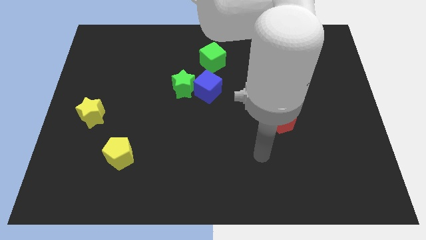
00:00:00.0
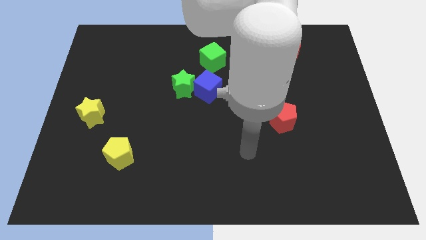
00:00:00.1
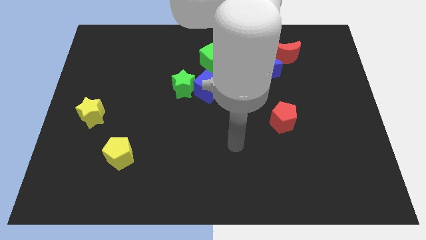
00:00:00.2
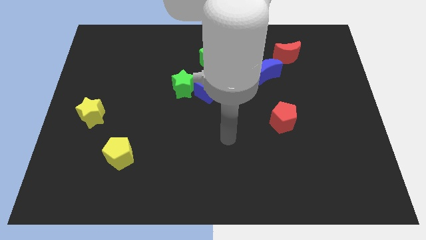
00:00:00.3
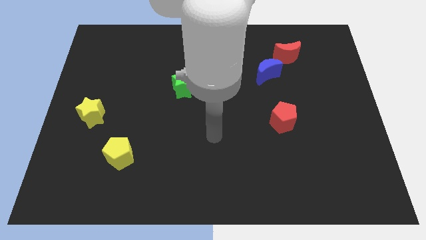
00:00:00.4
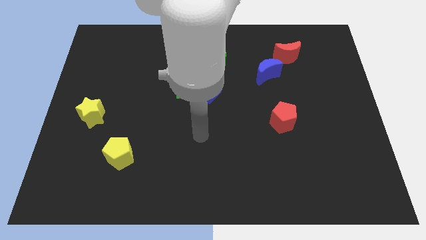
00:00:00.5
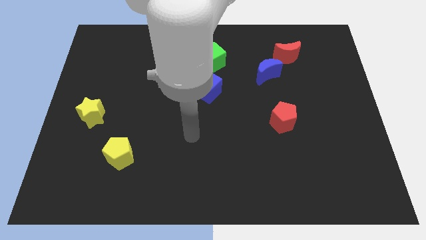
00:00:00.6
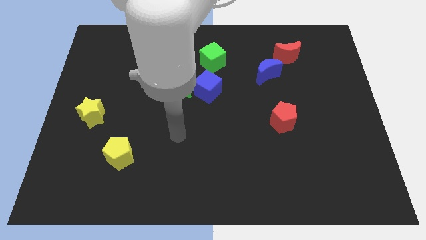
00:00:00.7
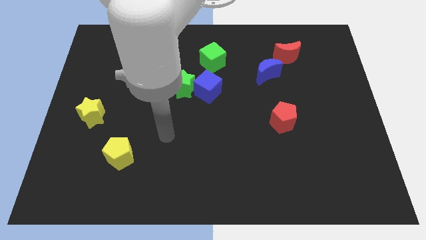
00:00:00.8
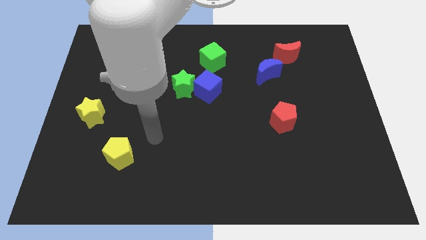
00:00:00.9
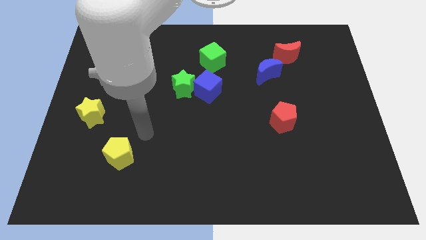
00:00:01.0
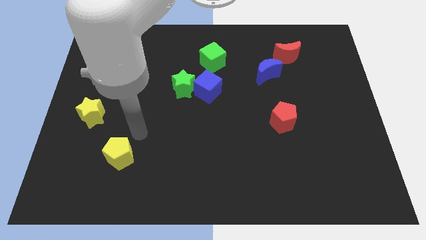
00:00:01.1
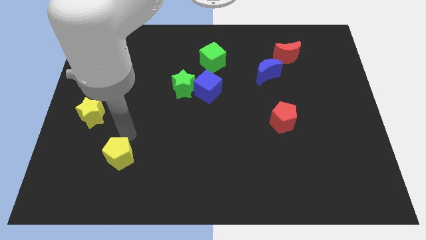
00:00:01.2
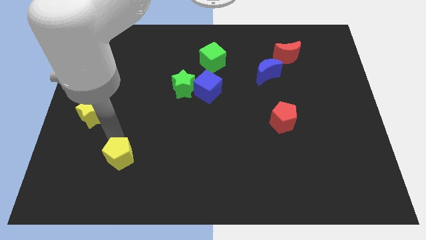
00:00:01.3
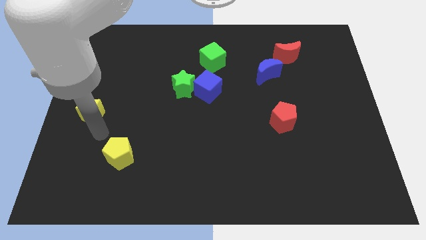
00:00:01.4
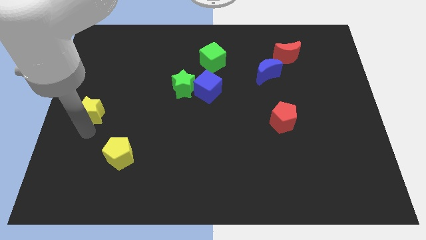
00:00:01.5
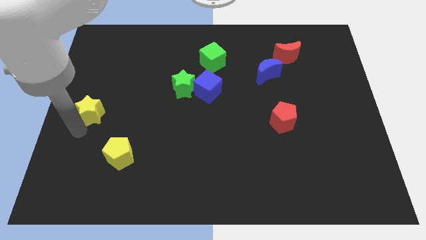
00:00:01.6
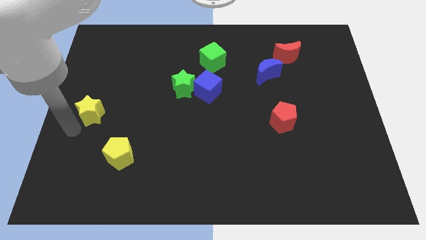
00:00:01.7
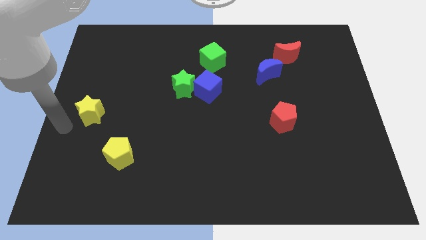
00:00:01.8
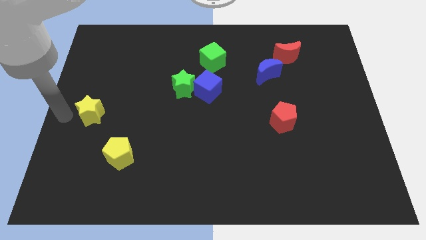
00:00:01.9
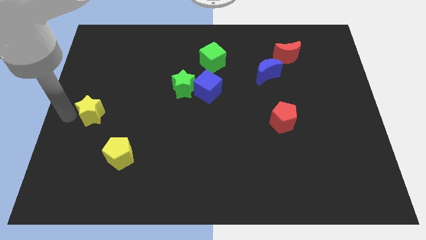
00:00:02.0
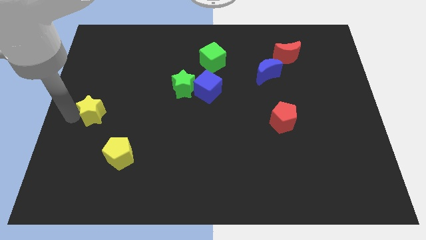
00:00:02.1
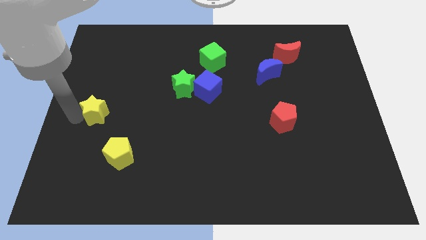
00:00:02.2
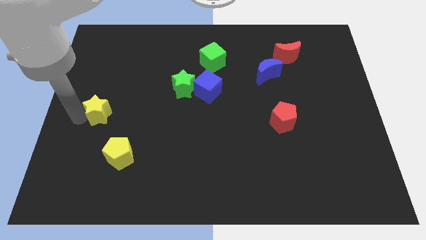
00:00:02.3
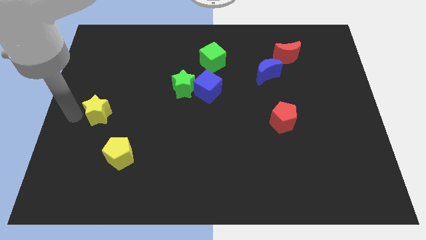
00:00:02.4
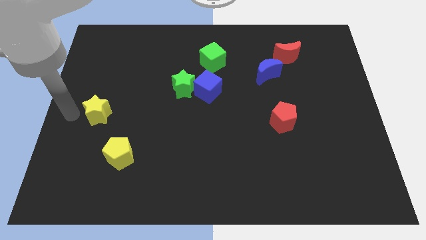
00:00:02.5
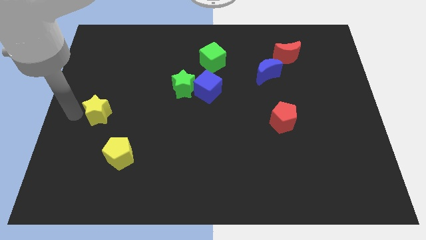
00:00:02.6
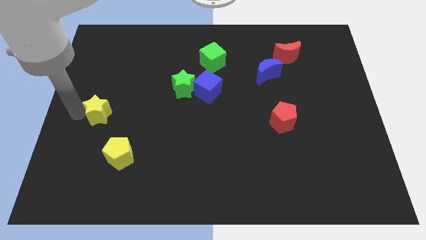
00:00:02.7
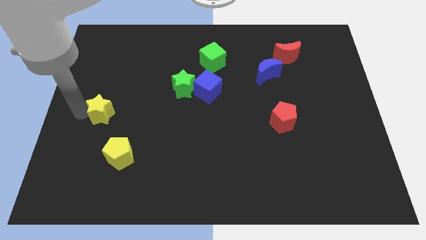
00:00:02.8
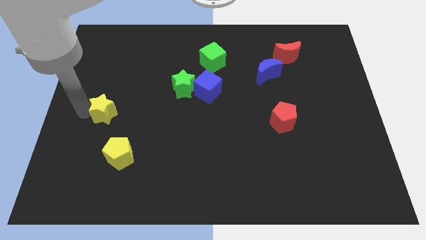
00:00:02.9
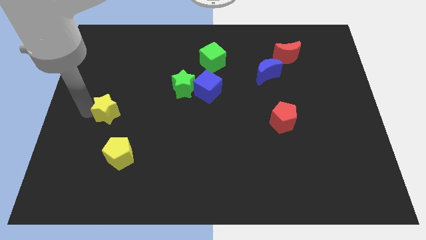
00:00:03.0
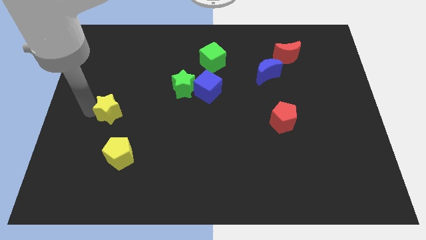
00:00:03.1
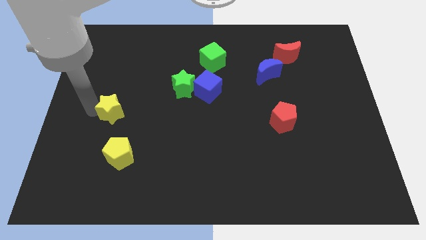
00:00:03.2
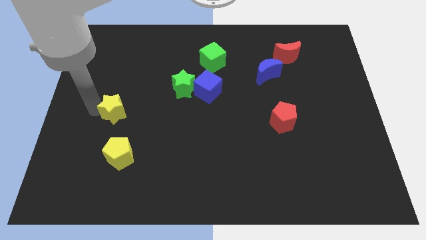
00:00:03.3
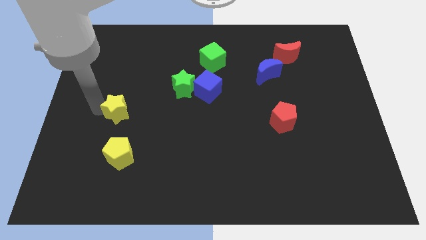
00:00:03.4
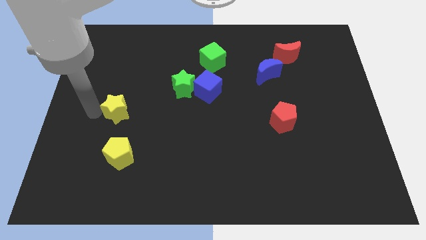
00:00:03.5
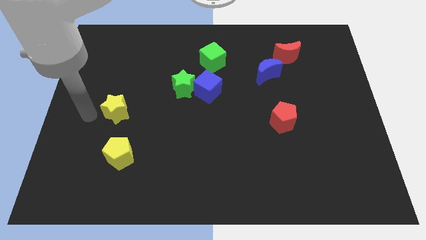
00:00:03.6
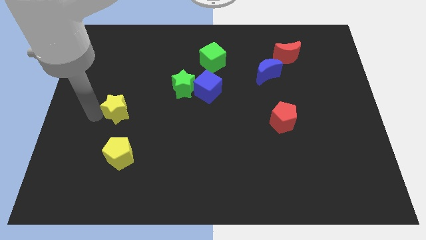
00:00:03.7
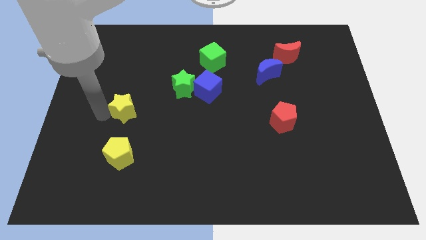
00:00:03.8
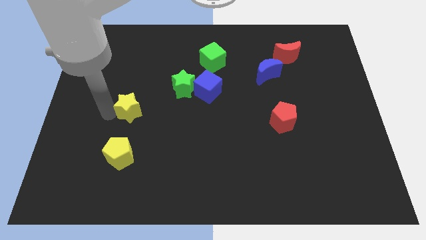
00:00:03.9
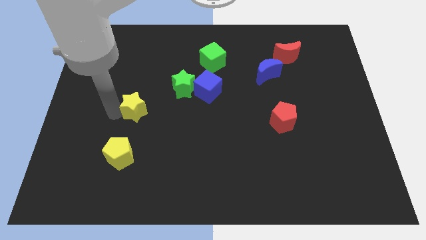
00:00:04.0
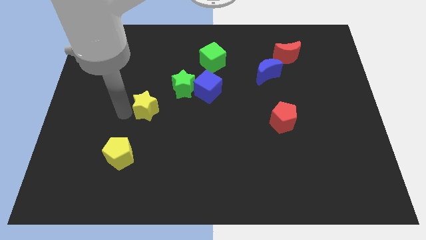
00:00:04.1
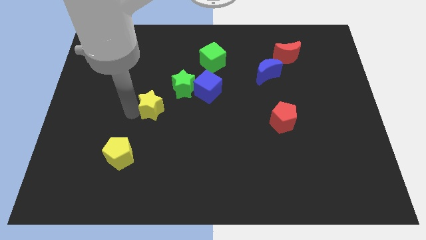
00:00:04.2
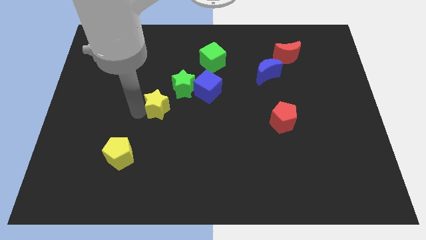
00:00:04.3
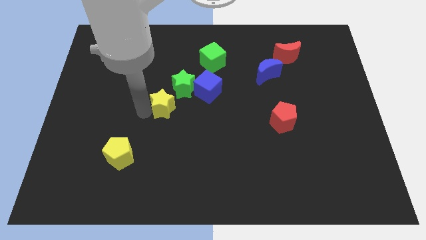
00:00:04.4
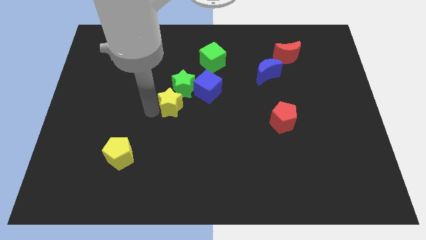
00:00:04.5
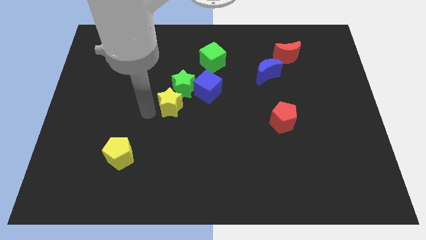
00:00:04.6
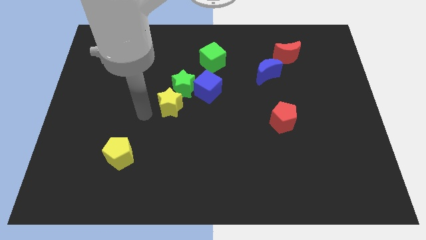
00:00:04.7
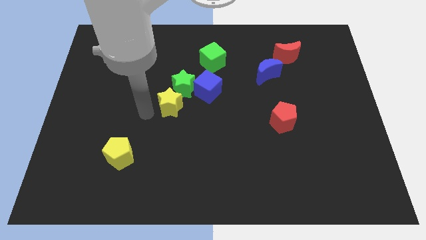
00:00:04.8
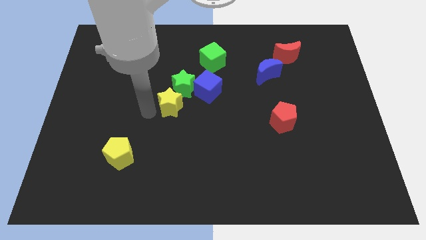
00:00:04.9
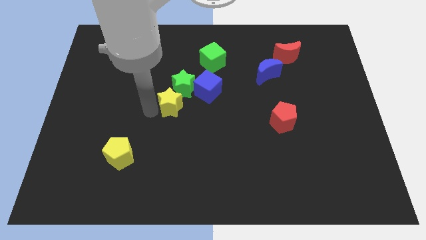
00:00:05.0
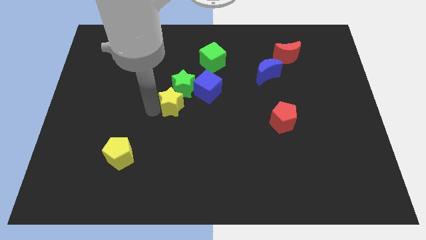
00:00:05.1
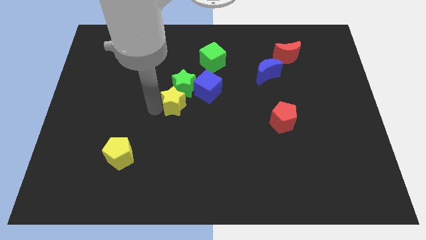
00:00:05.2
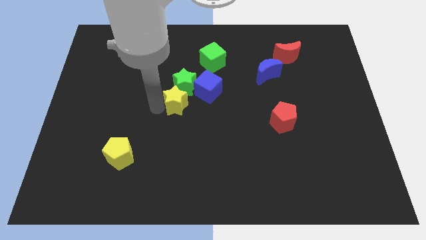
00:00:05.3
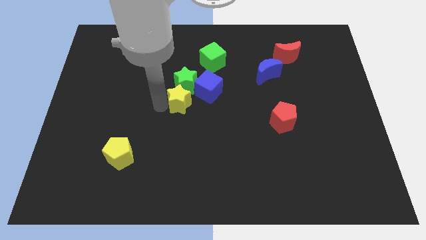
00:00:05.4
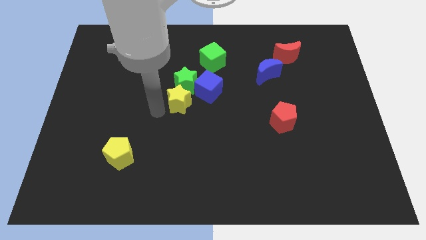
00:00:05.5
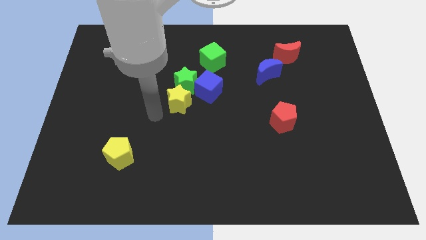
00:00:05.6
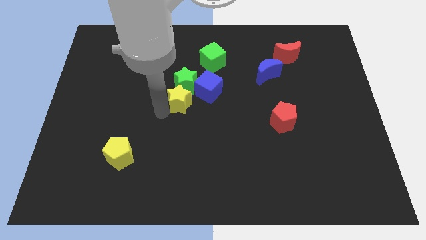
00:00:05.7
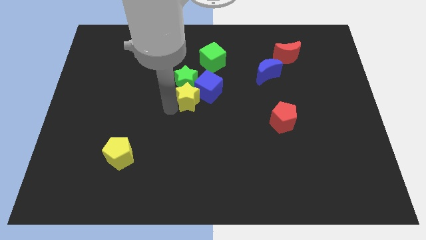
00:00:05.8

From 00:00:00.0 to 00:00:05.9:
push the yellow star towards the blue cube
